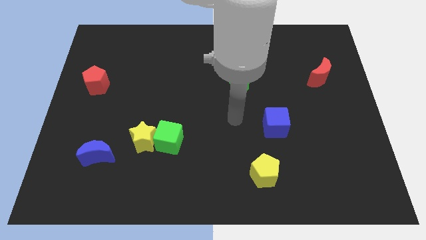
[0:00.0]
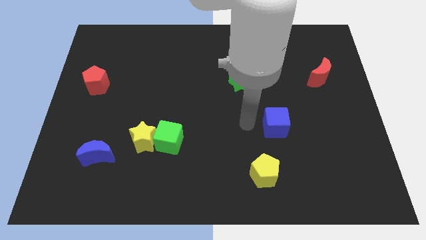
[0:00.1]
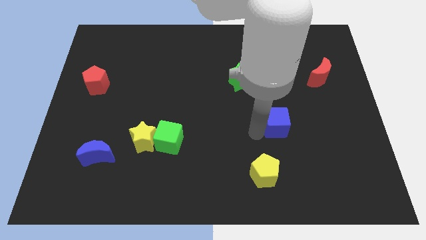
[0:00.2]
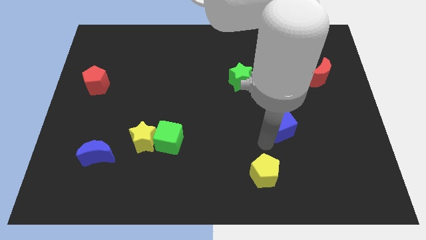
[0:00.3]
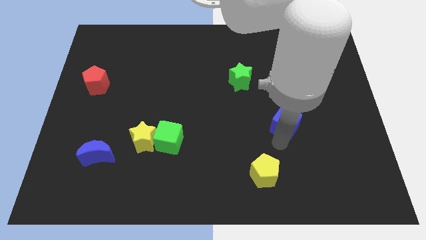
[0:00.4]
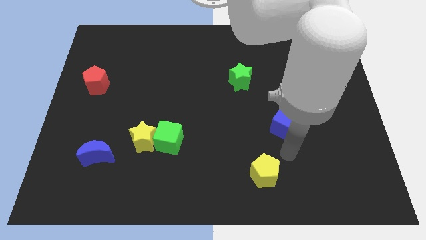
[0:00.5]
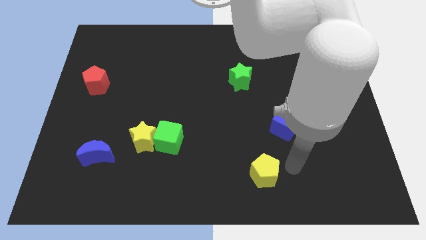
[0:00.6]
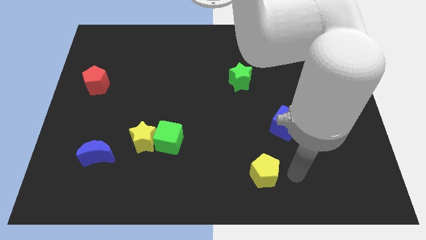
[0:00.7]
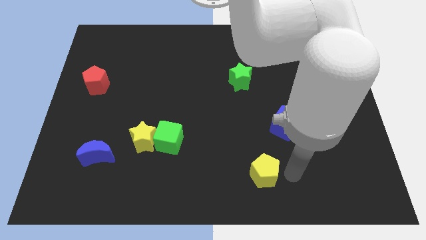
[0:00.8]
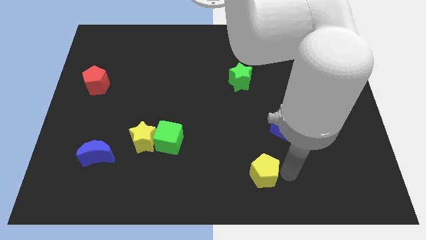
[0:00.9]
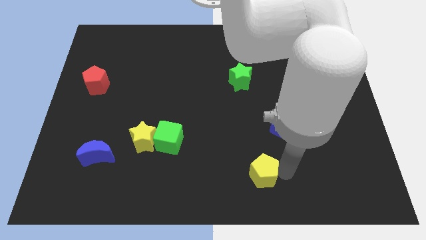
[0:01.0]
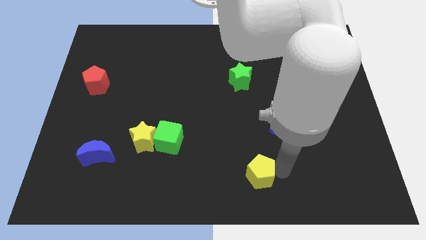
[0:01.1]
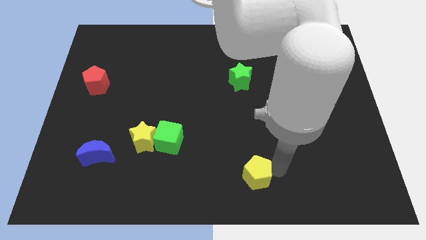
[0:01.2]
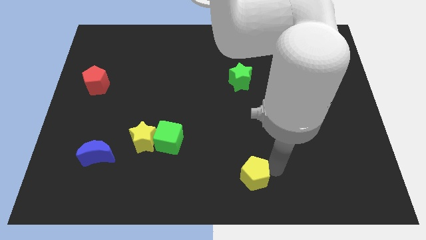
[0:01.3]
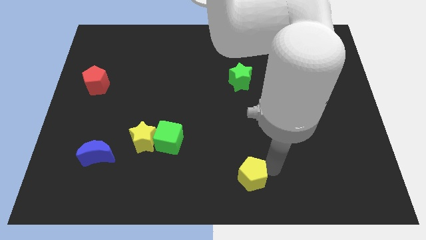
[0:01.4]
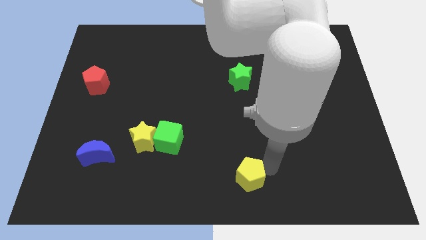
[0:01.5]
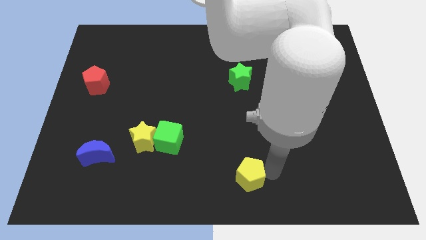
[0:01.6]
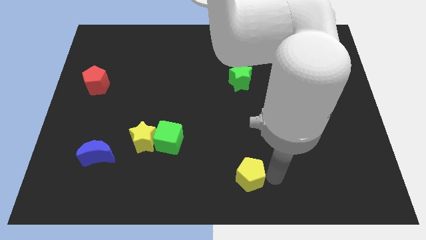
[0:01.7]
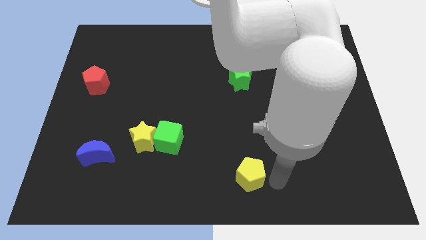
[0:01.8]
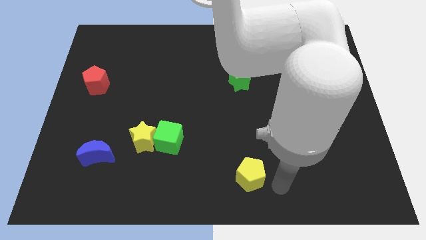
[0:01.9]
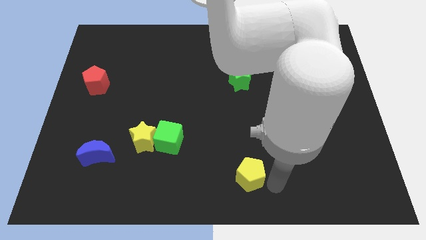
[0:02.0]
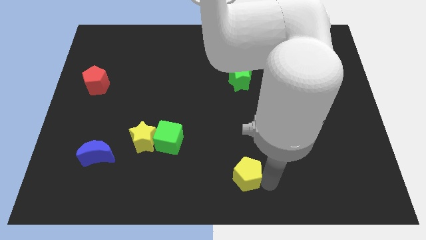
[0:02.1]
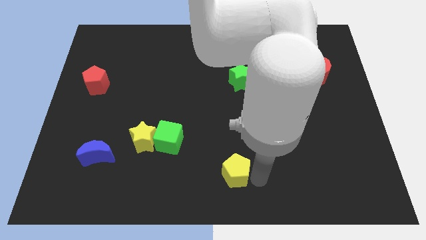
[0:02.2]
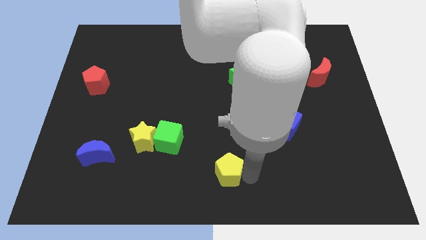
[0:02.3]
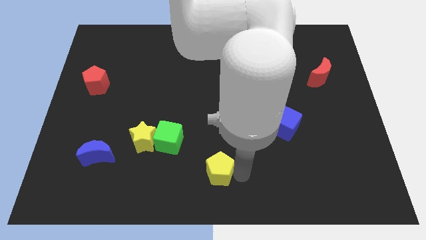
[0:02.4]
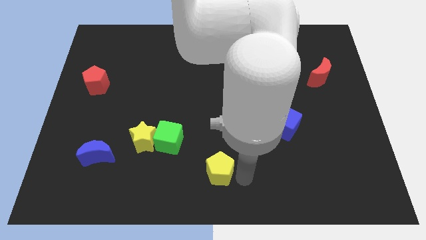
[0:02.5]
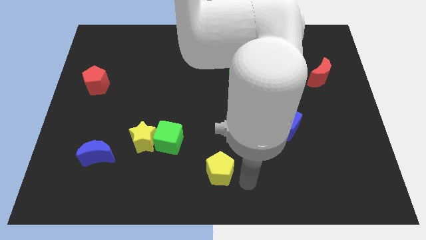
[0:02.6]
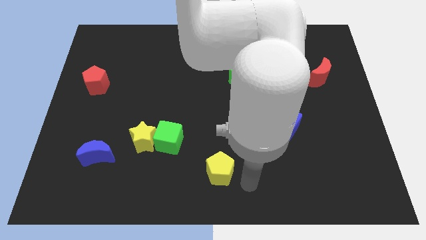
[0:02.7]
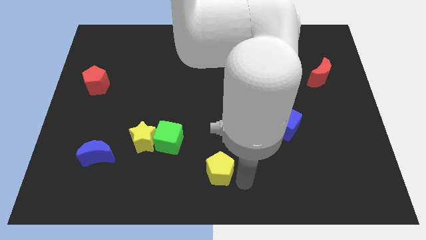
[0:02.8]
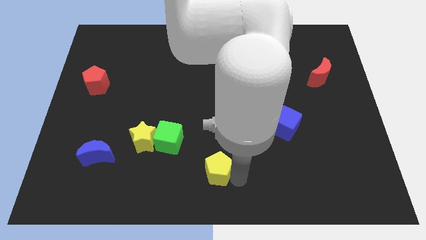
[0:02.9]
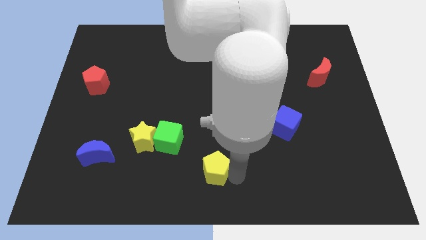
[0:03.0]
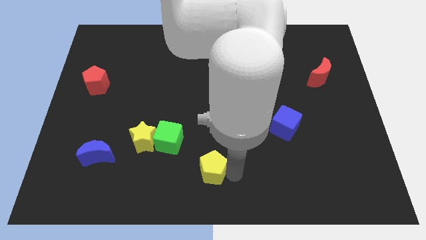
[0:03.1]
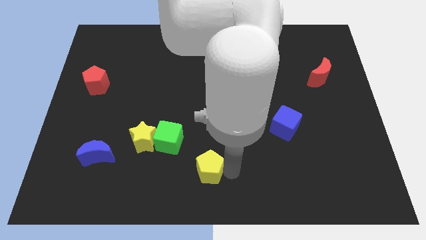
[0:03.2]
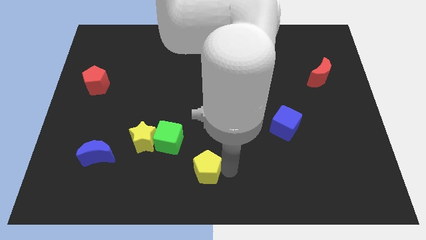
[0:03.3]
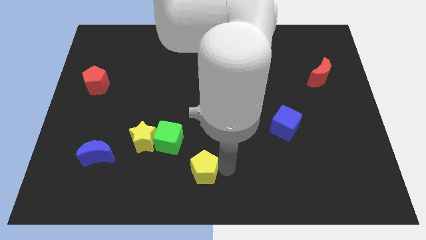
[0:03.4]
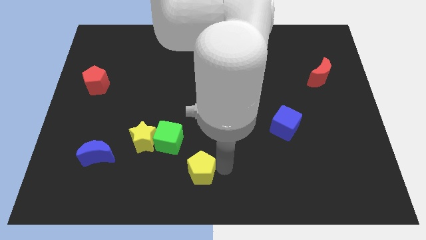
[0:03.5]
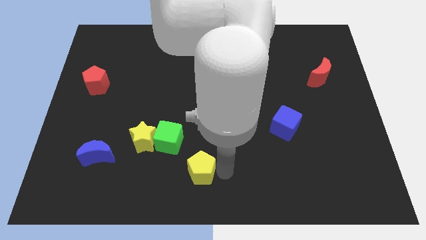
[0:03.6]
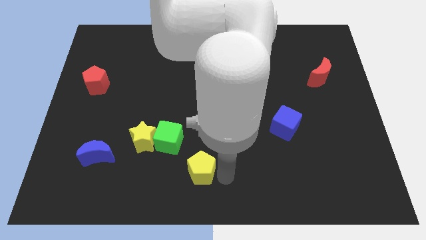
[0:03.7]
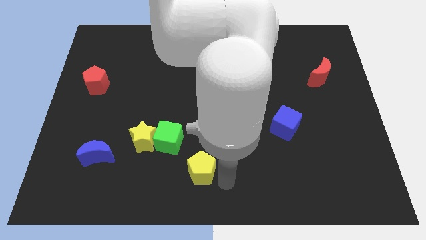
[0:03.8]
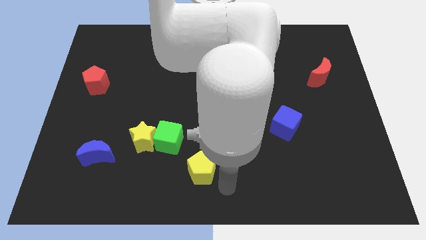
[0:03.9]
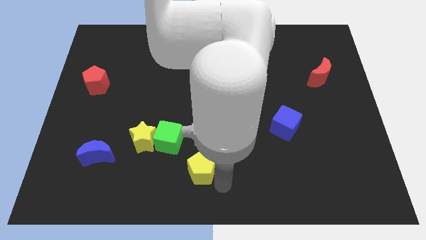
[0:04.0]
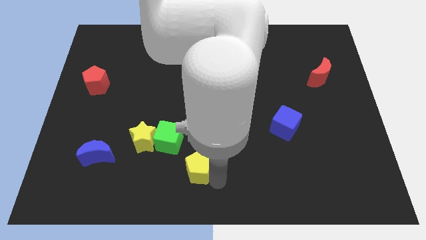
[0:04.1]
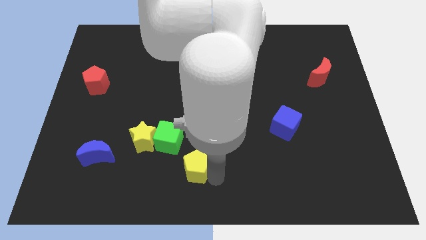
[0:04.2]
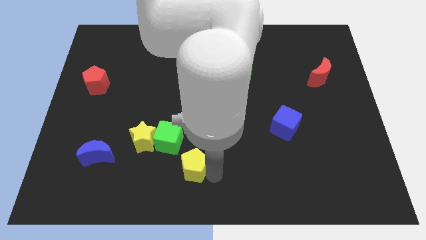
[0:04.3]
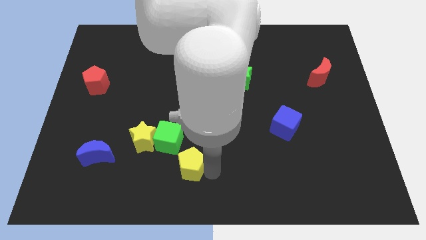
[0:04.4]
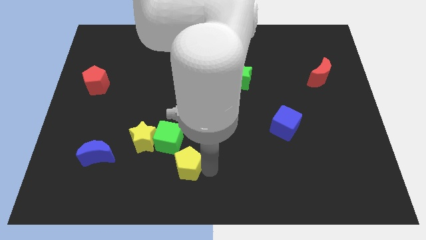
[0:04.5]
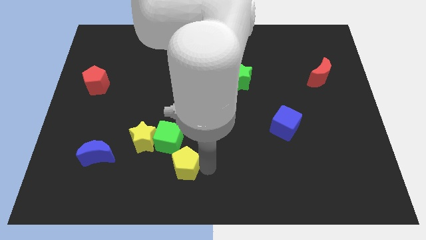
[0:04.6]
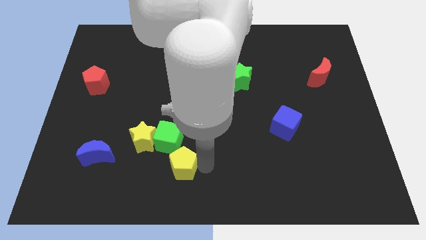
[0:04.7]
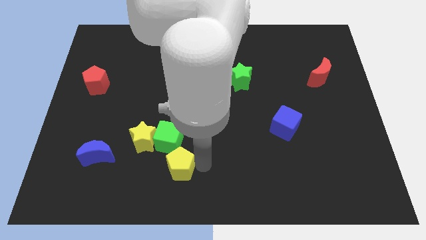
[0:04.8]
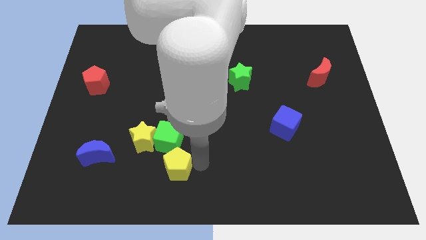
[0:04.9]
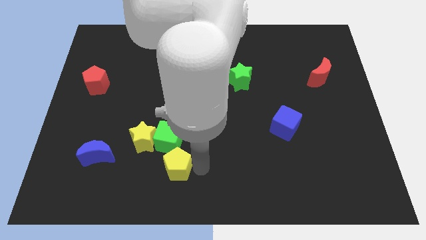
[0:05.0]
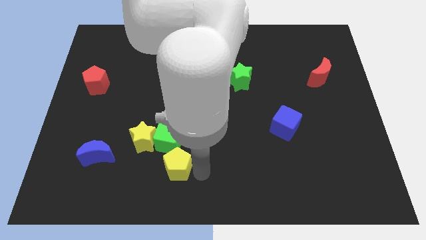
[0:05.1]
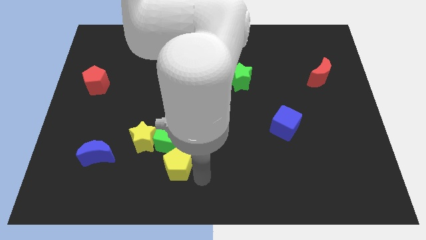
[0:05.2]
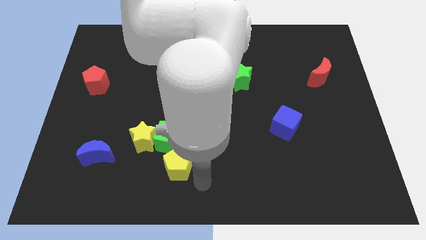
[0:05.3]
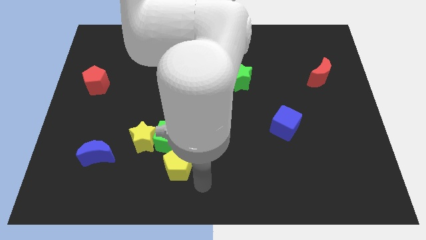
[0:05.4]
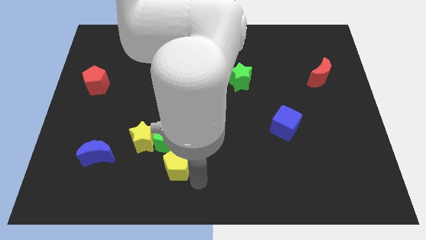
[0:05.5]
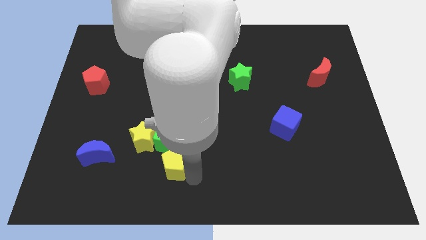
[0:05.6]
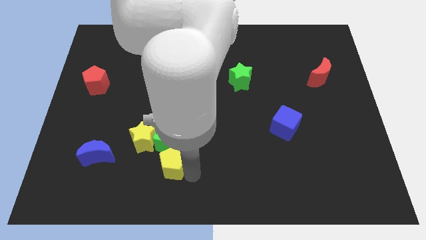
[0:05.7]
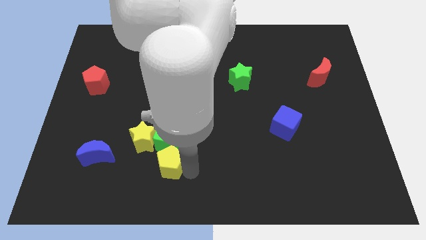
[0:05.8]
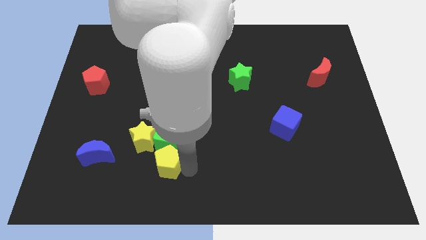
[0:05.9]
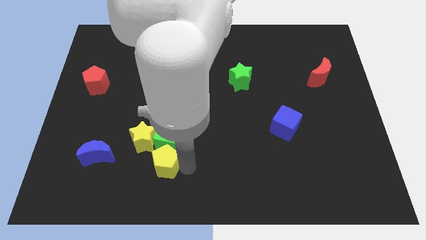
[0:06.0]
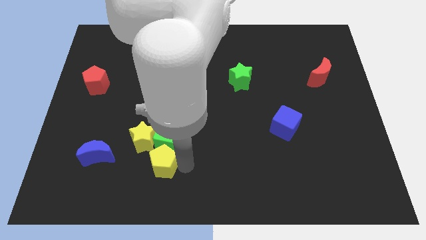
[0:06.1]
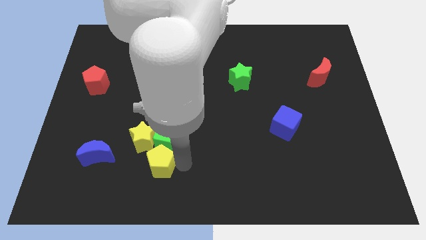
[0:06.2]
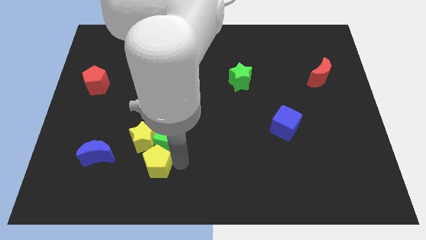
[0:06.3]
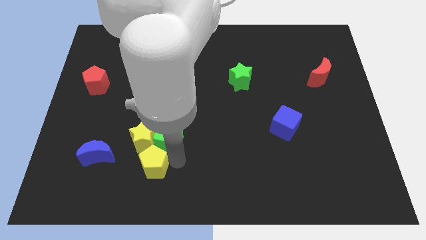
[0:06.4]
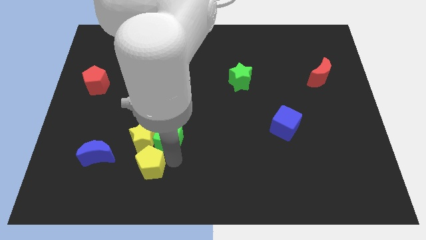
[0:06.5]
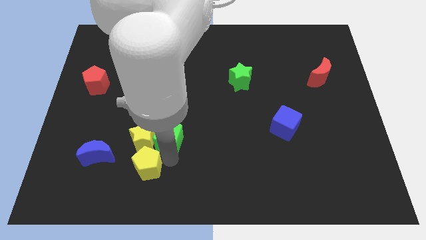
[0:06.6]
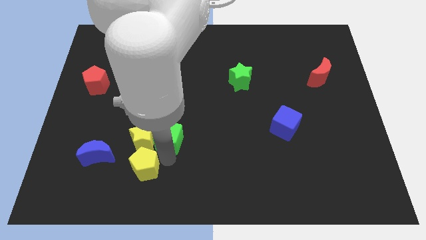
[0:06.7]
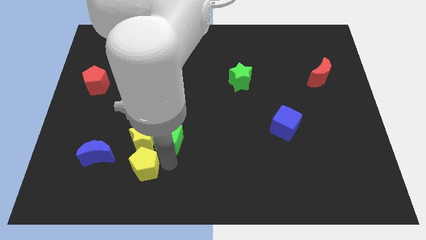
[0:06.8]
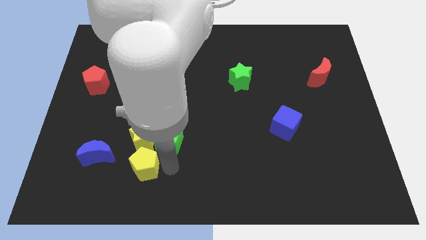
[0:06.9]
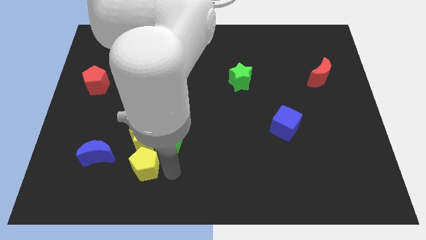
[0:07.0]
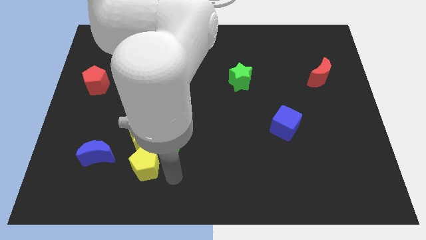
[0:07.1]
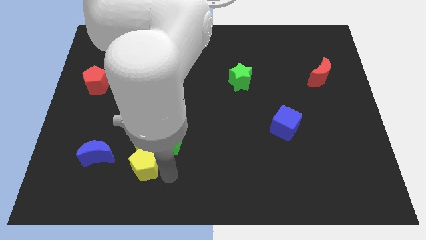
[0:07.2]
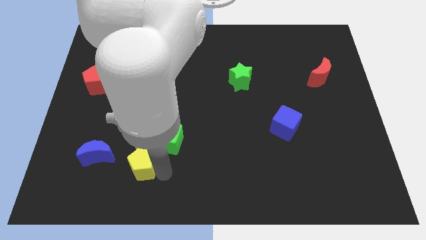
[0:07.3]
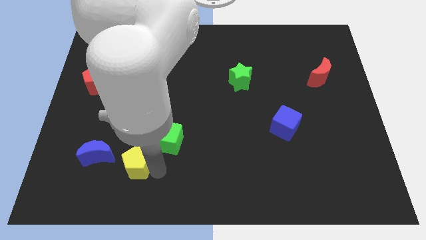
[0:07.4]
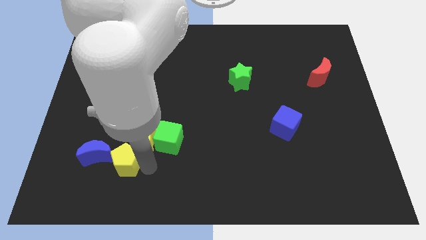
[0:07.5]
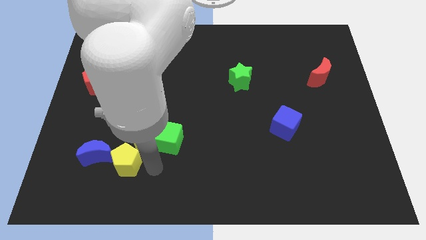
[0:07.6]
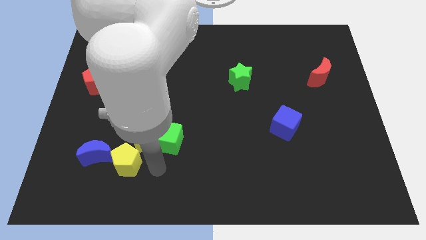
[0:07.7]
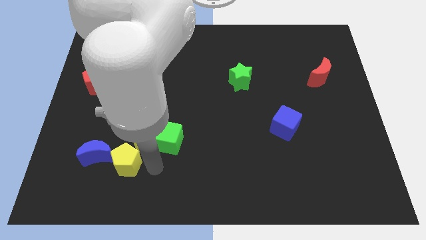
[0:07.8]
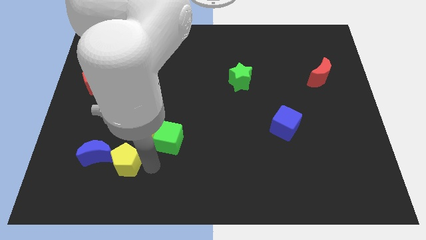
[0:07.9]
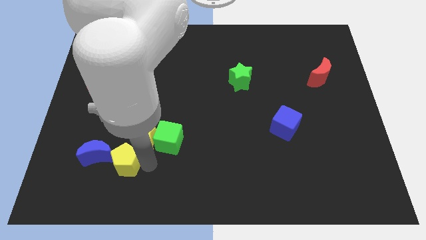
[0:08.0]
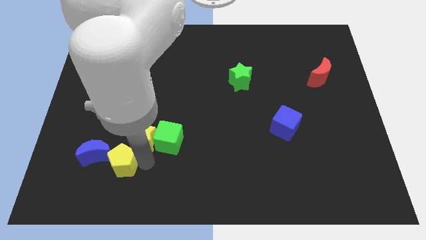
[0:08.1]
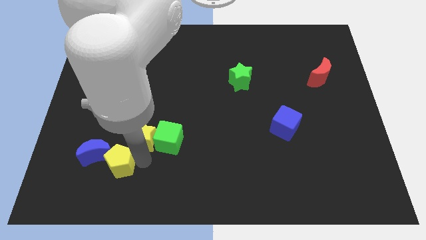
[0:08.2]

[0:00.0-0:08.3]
move the yellow pentagon towards the blue moon
